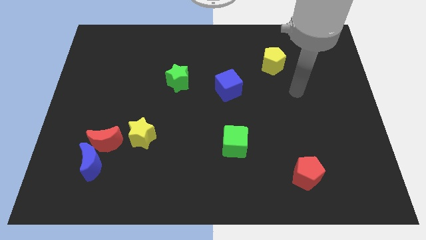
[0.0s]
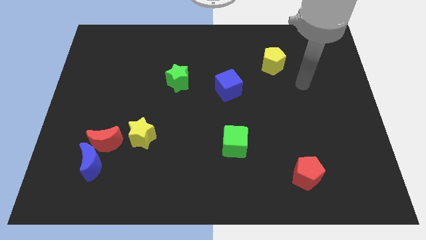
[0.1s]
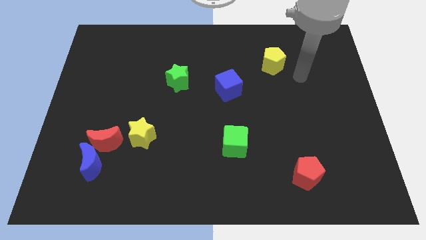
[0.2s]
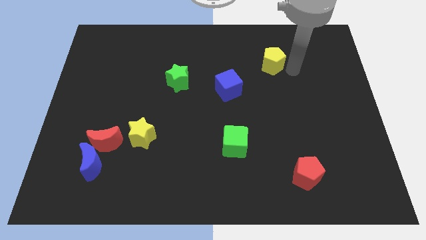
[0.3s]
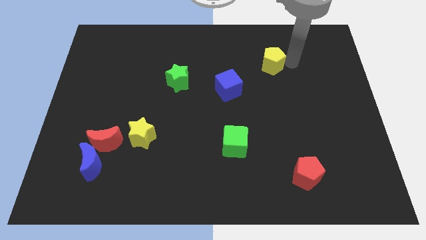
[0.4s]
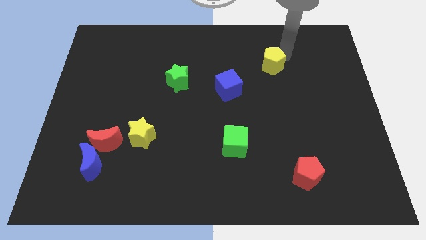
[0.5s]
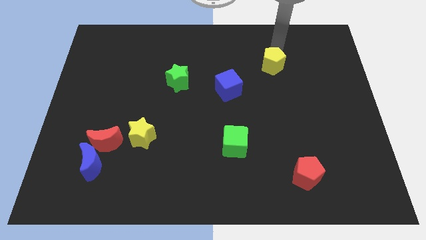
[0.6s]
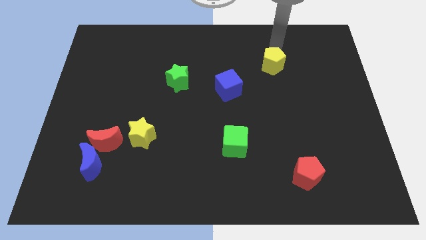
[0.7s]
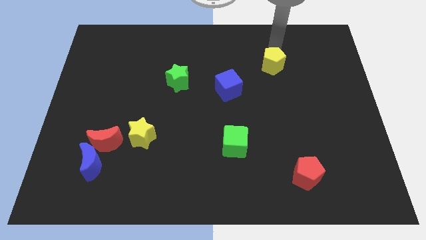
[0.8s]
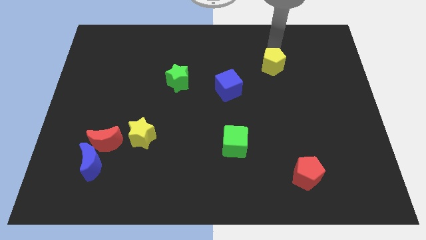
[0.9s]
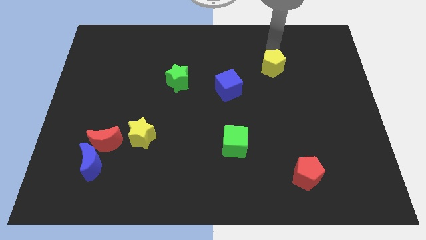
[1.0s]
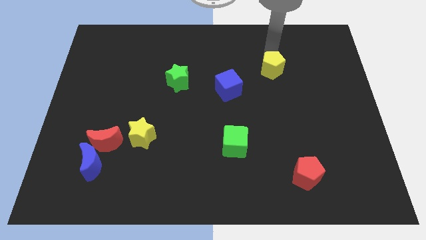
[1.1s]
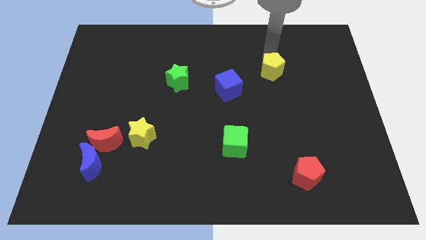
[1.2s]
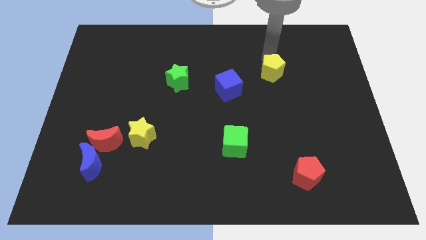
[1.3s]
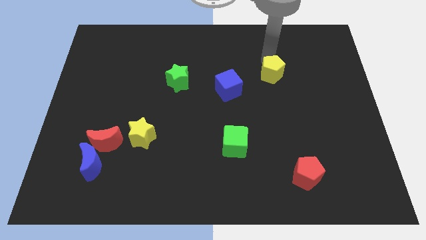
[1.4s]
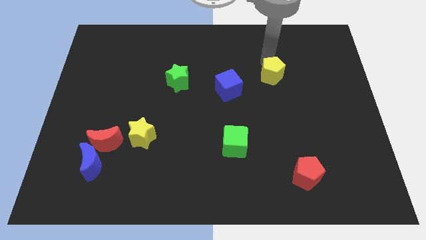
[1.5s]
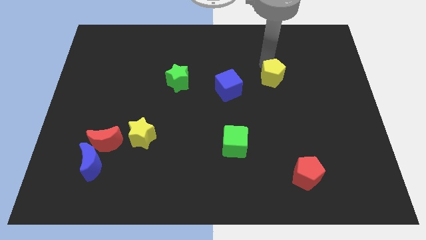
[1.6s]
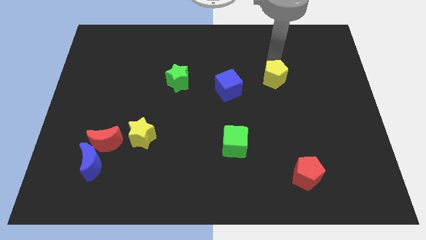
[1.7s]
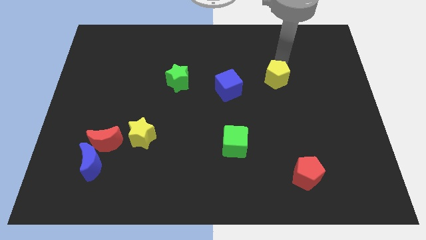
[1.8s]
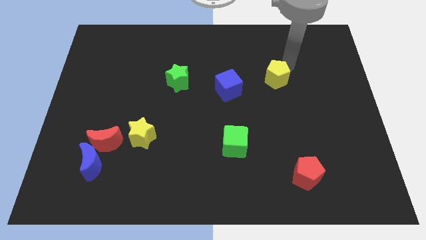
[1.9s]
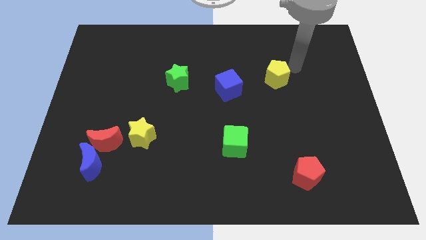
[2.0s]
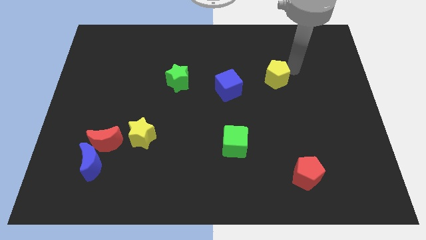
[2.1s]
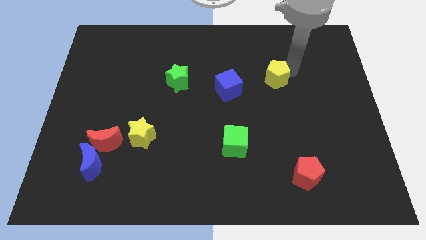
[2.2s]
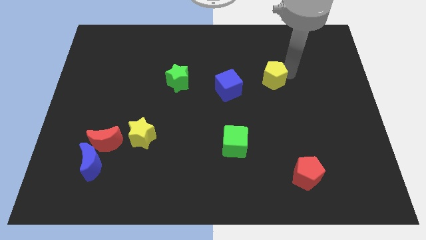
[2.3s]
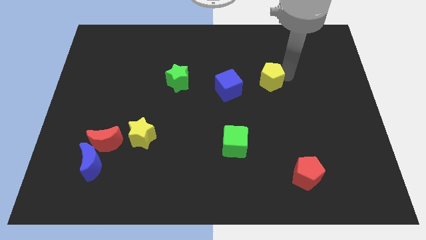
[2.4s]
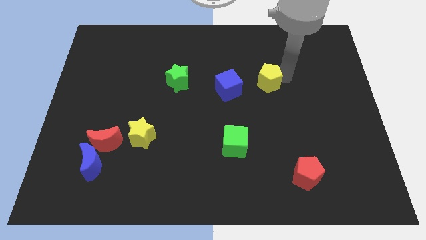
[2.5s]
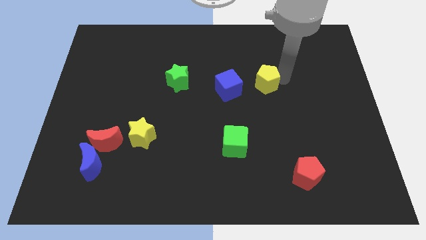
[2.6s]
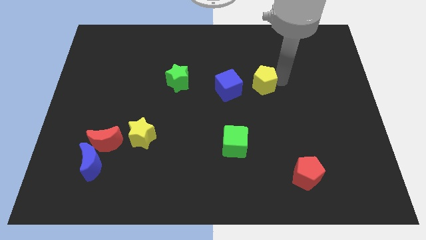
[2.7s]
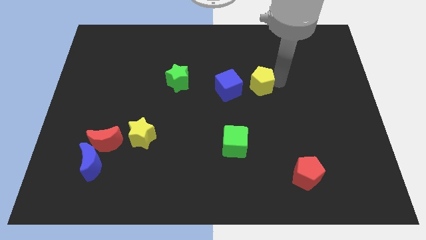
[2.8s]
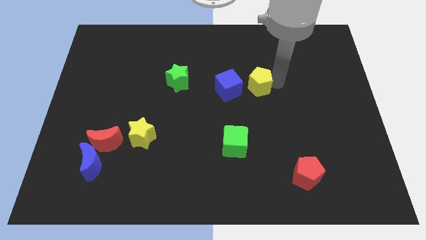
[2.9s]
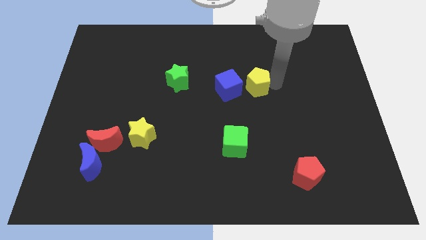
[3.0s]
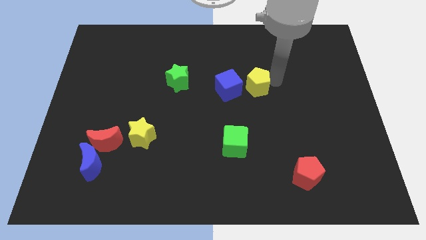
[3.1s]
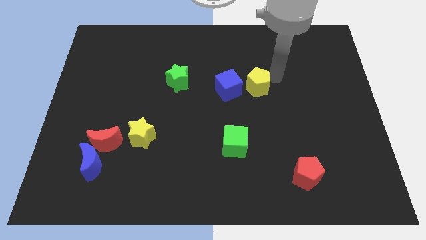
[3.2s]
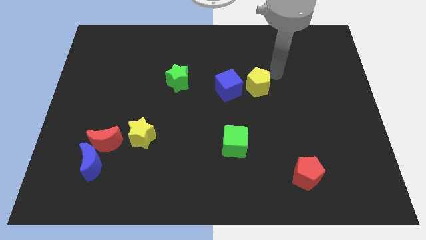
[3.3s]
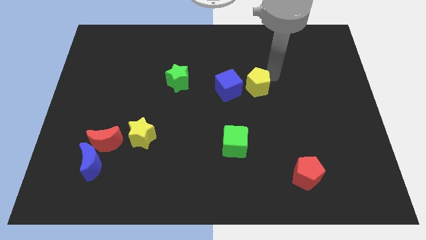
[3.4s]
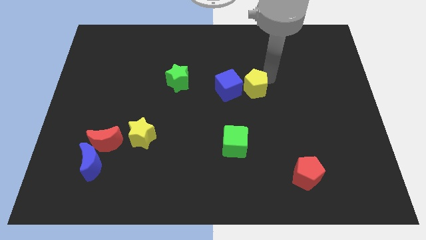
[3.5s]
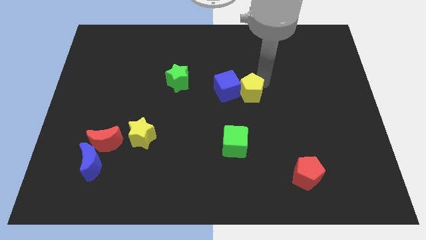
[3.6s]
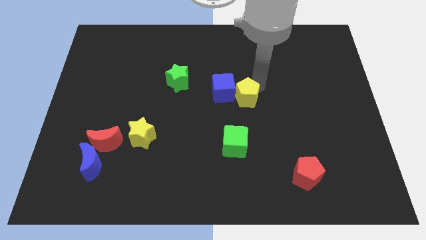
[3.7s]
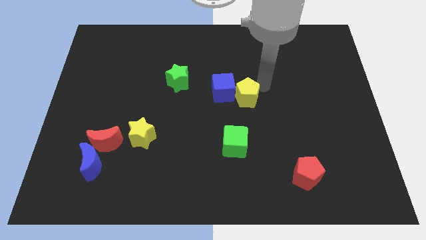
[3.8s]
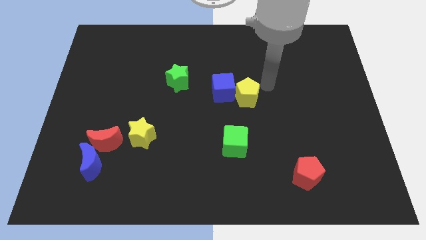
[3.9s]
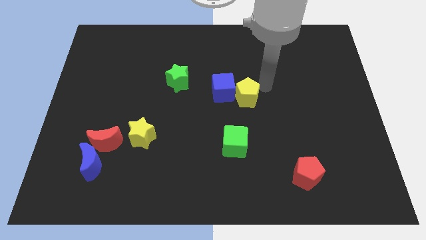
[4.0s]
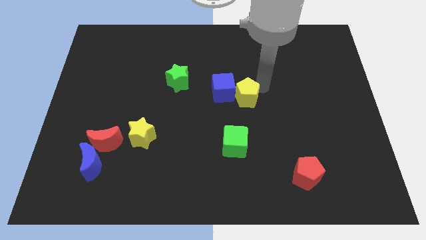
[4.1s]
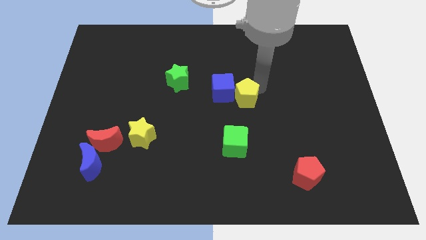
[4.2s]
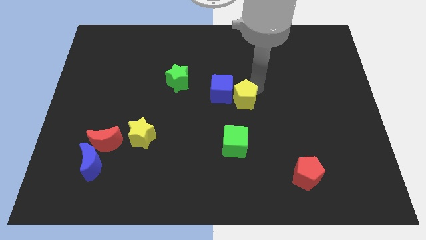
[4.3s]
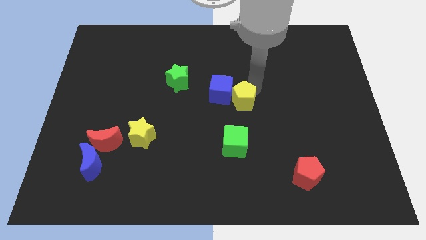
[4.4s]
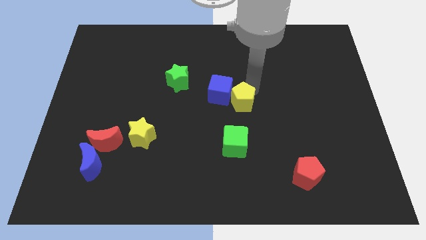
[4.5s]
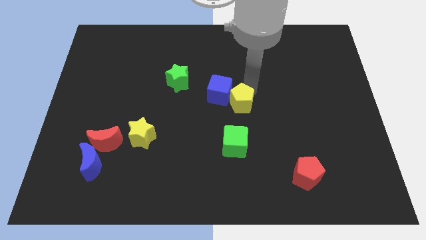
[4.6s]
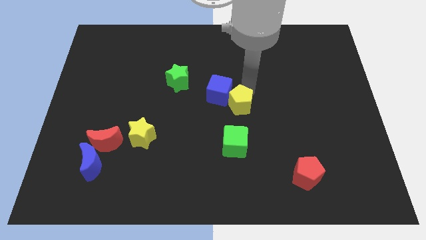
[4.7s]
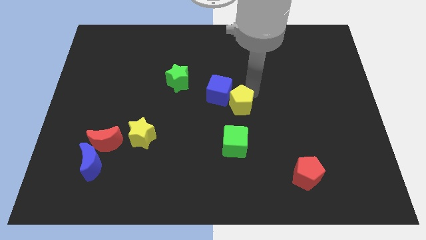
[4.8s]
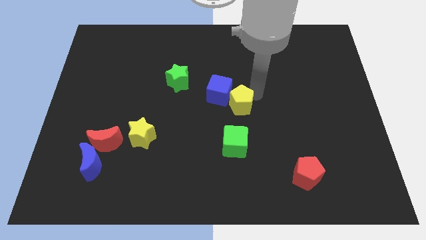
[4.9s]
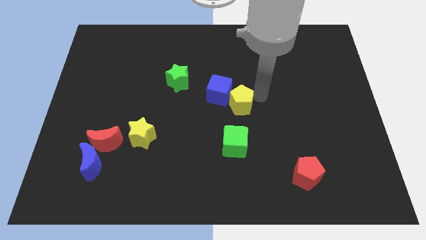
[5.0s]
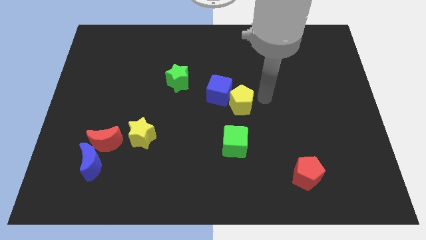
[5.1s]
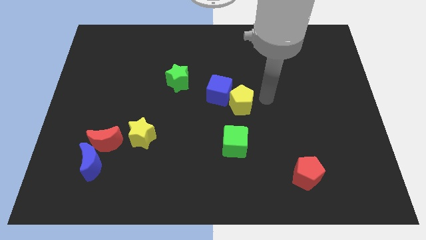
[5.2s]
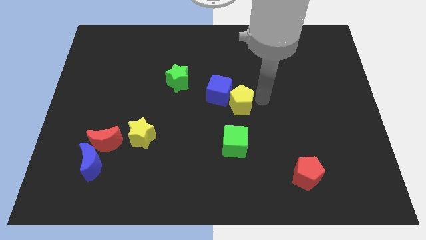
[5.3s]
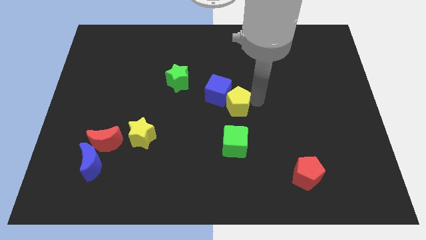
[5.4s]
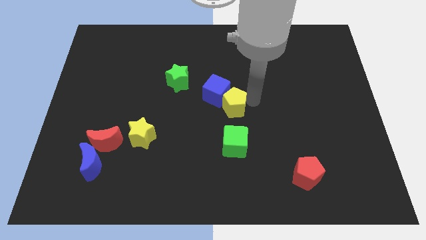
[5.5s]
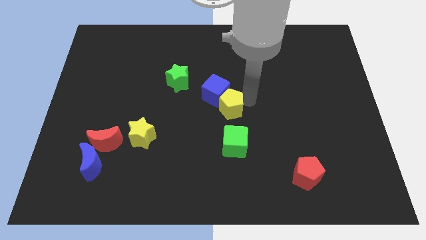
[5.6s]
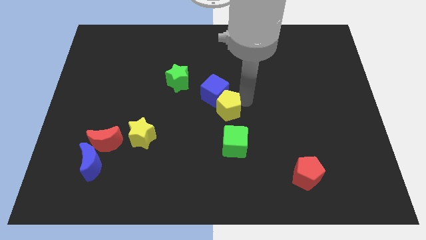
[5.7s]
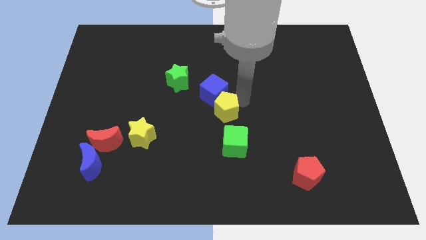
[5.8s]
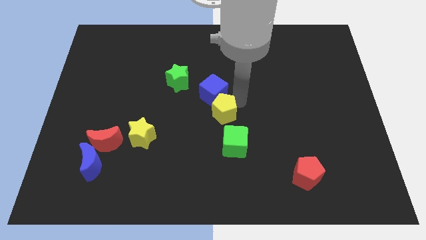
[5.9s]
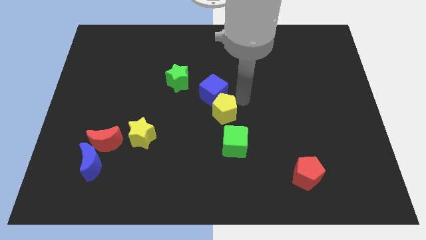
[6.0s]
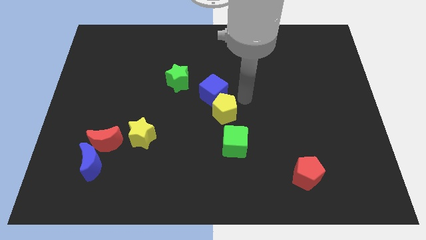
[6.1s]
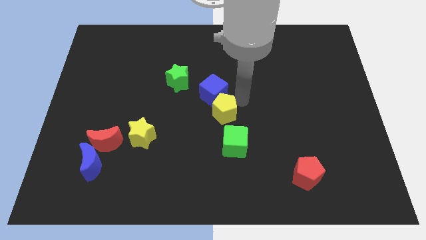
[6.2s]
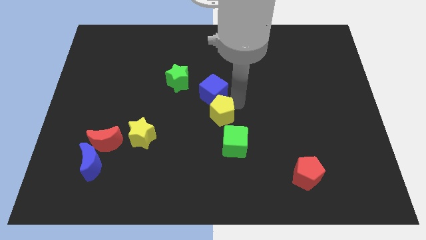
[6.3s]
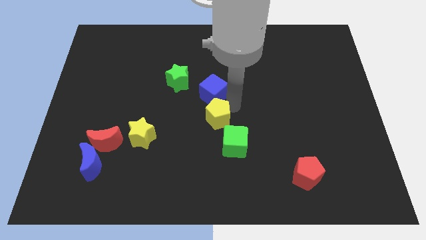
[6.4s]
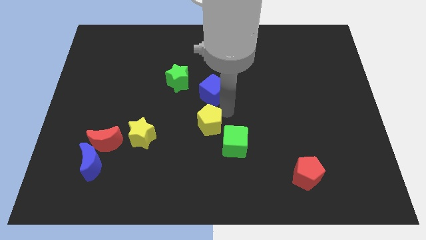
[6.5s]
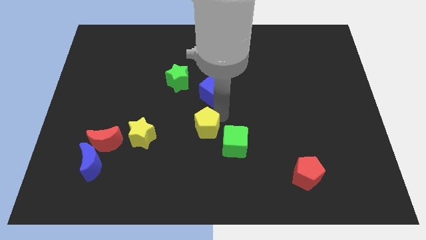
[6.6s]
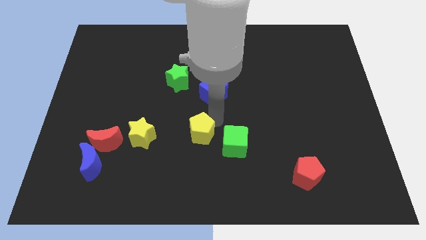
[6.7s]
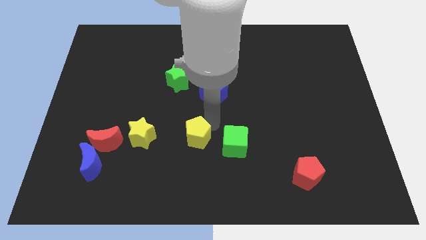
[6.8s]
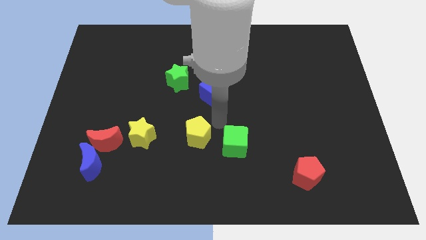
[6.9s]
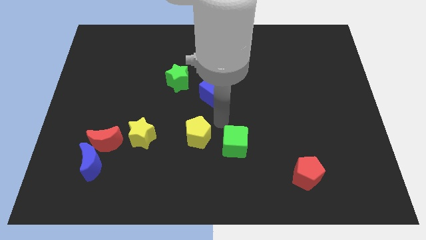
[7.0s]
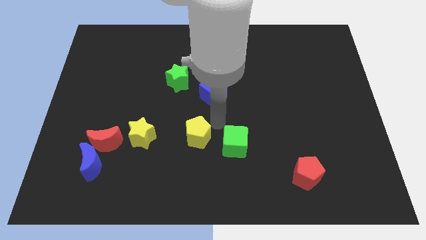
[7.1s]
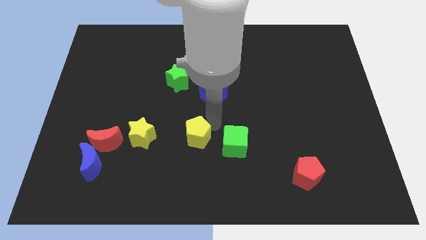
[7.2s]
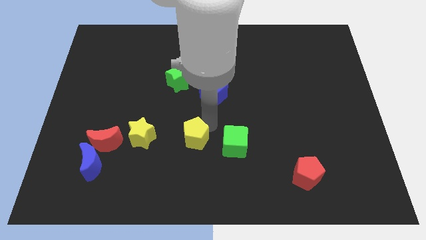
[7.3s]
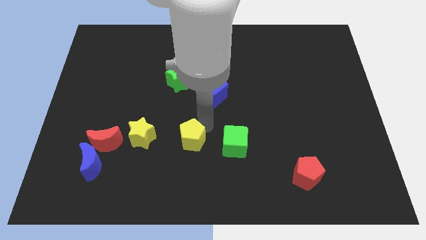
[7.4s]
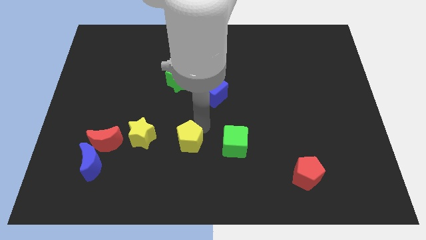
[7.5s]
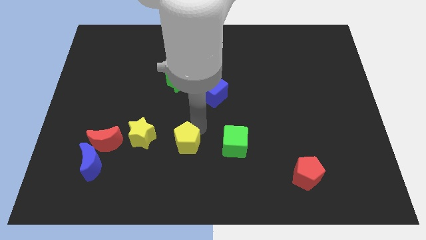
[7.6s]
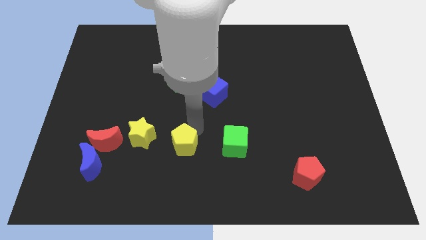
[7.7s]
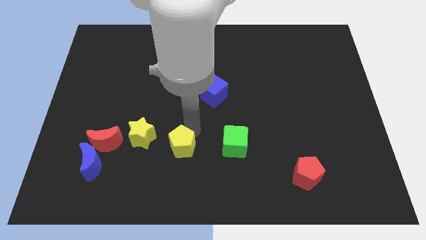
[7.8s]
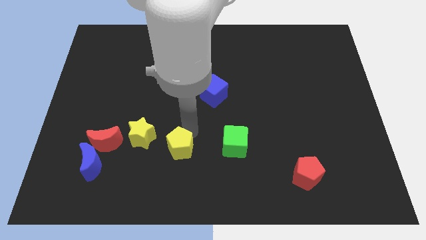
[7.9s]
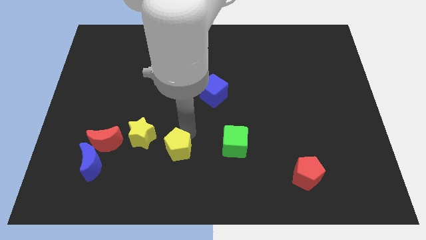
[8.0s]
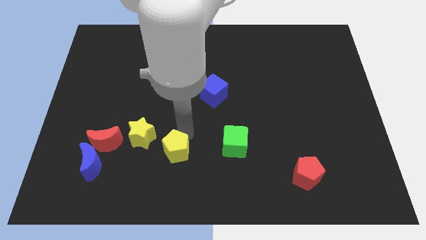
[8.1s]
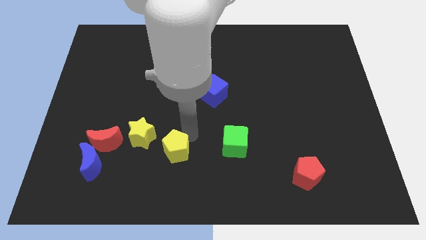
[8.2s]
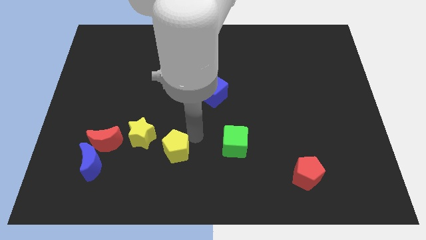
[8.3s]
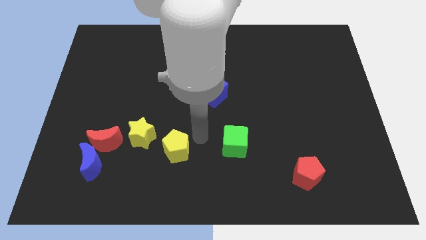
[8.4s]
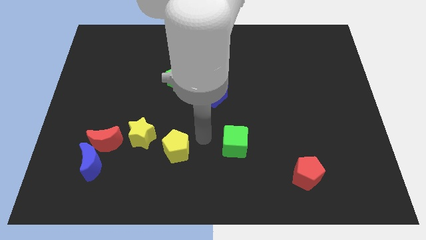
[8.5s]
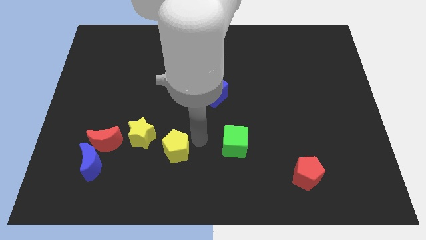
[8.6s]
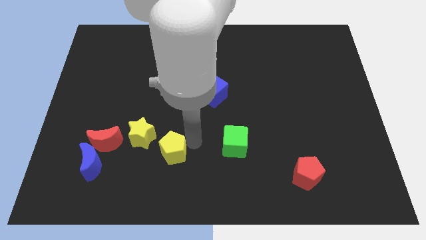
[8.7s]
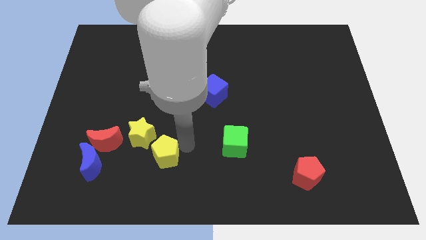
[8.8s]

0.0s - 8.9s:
put the yellow pentagon to the right of the blue moon
